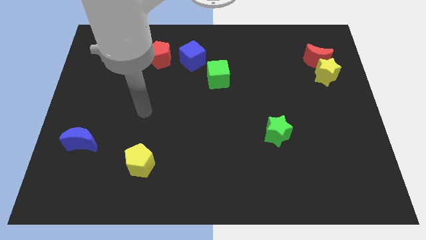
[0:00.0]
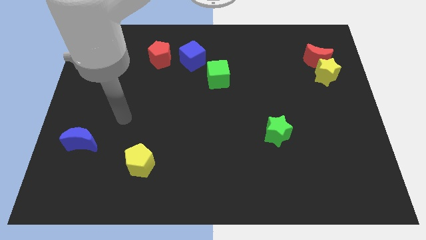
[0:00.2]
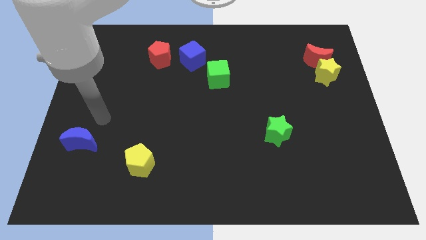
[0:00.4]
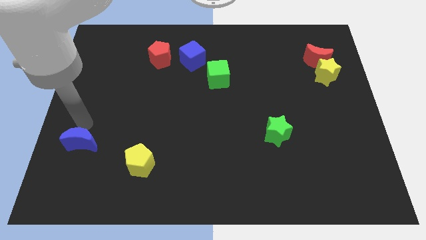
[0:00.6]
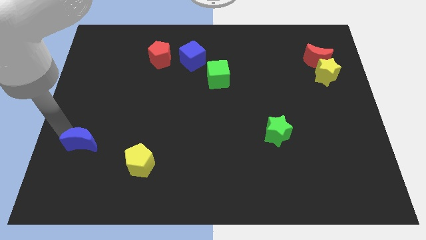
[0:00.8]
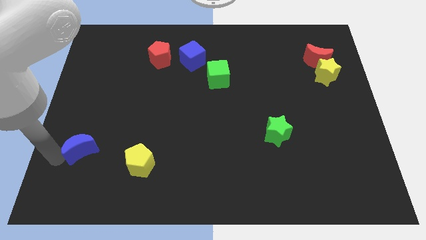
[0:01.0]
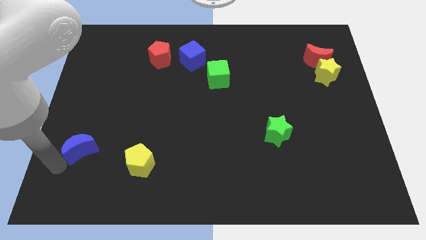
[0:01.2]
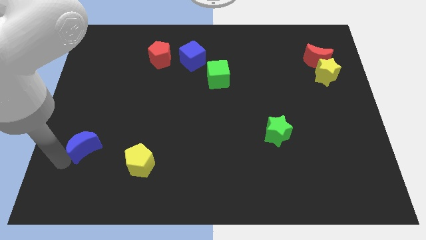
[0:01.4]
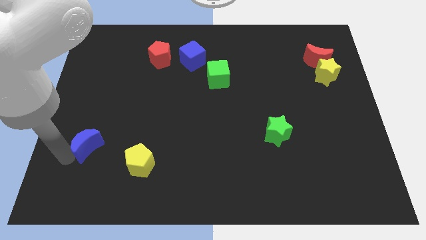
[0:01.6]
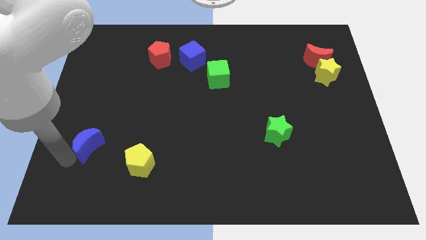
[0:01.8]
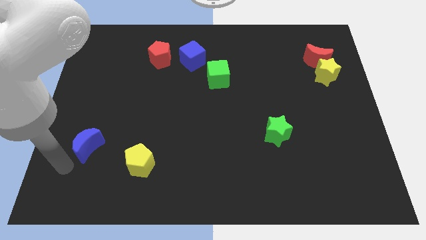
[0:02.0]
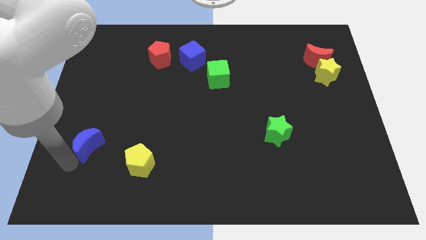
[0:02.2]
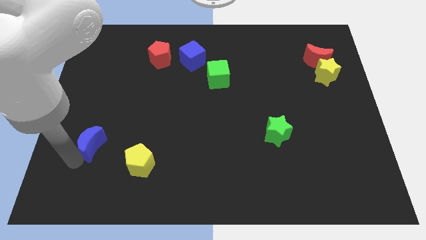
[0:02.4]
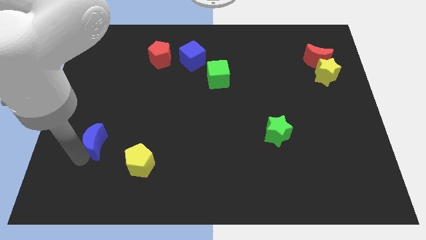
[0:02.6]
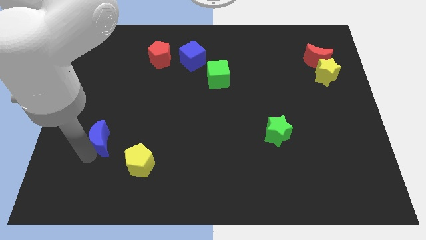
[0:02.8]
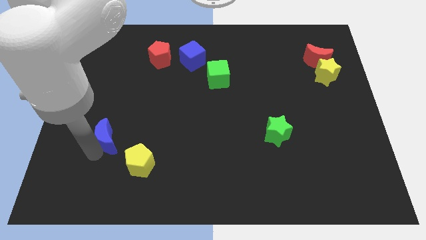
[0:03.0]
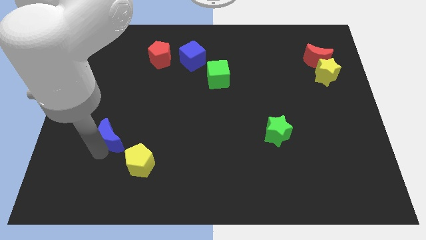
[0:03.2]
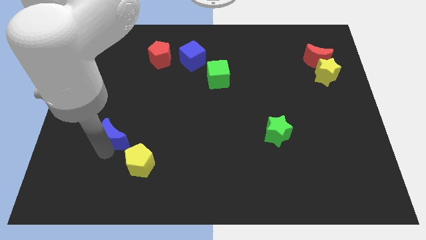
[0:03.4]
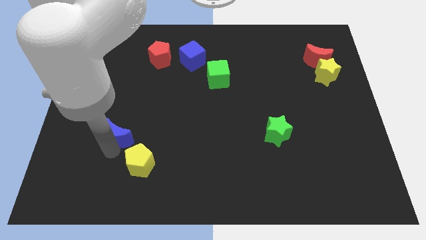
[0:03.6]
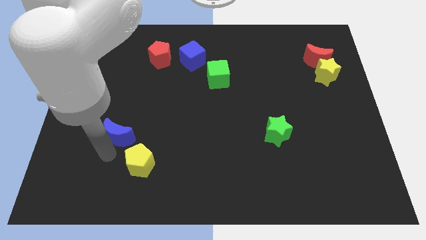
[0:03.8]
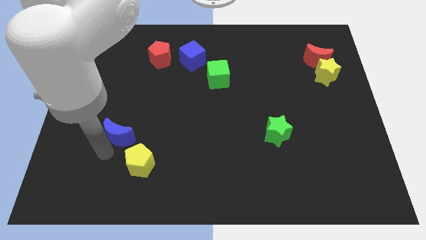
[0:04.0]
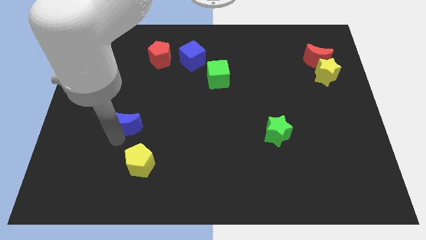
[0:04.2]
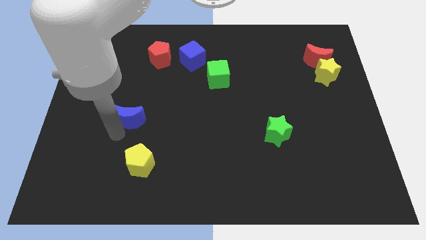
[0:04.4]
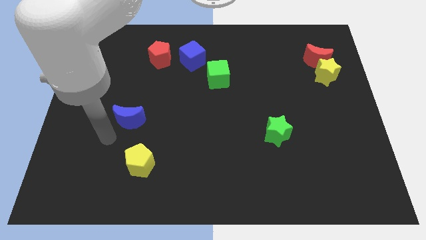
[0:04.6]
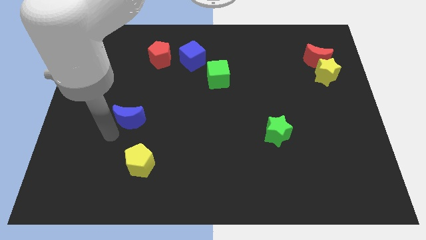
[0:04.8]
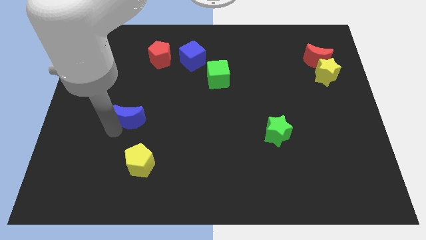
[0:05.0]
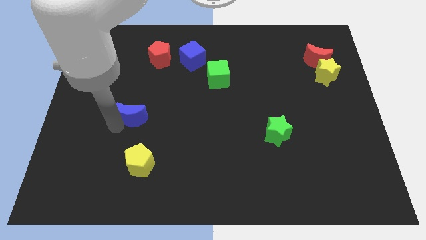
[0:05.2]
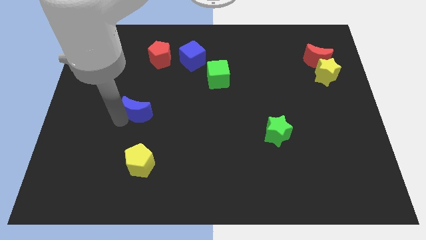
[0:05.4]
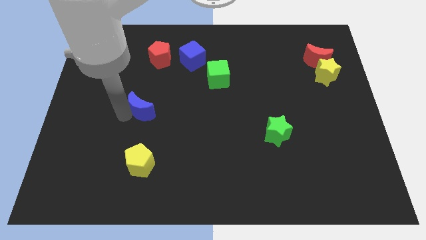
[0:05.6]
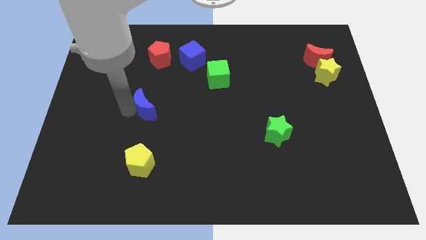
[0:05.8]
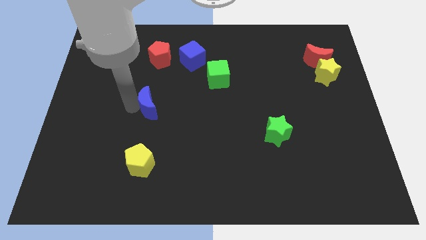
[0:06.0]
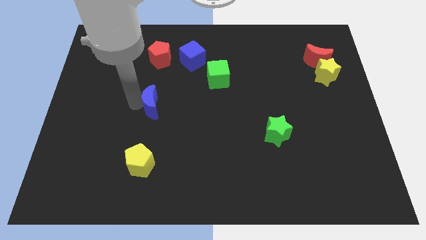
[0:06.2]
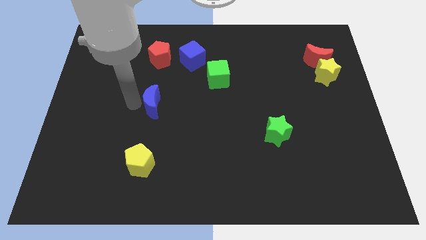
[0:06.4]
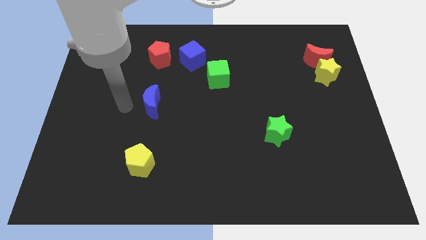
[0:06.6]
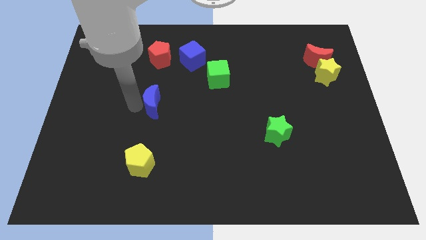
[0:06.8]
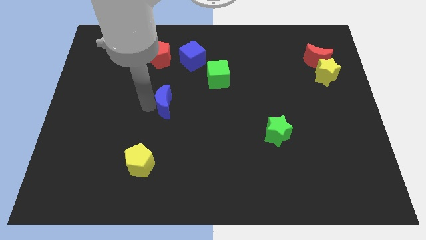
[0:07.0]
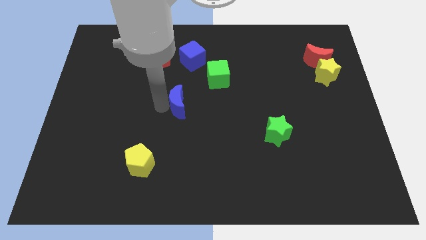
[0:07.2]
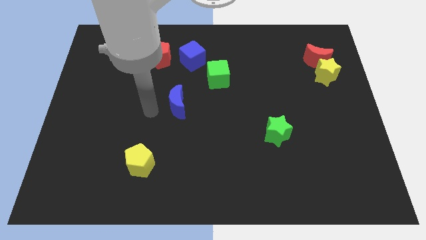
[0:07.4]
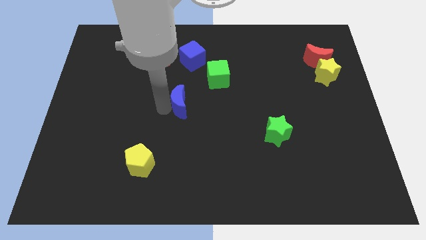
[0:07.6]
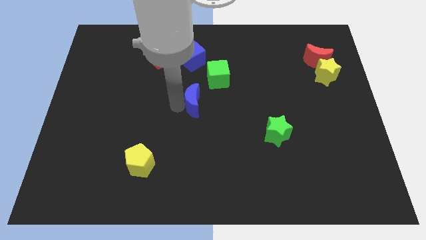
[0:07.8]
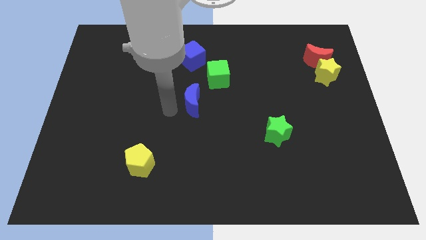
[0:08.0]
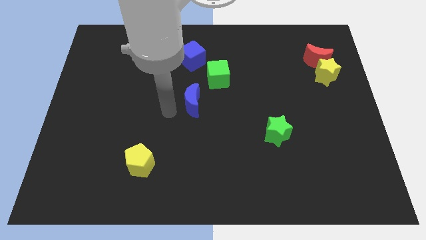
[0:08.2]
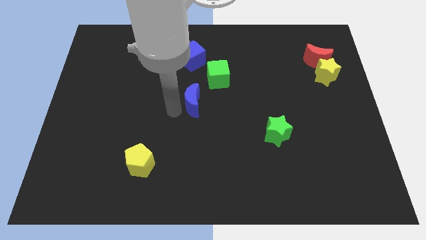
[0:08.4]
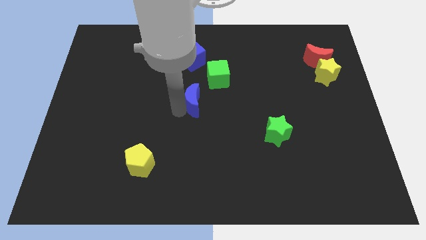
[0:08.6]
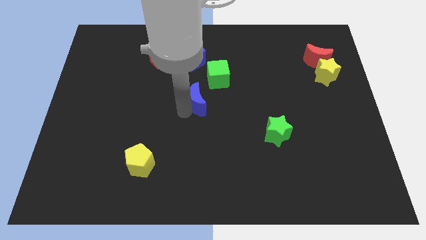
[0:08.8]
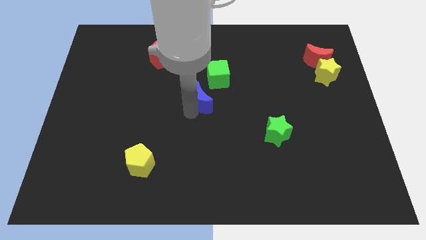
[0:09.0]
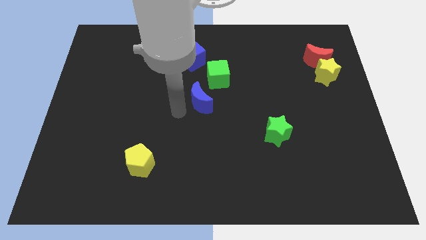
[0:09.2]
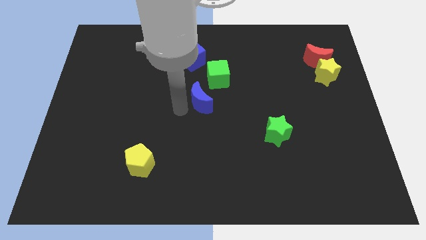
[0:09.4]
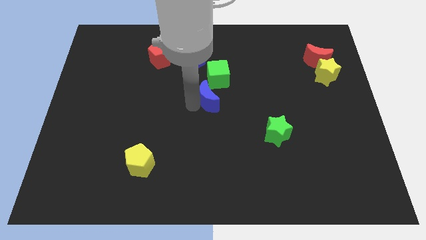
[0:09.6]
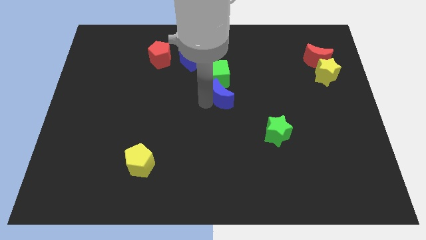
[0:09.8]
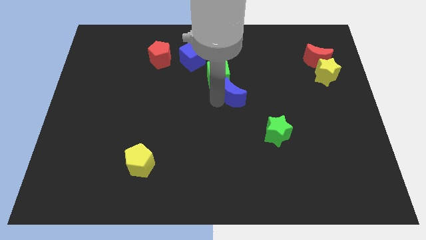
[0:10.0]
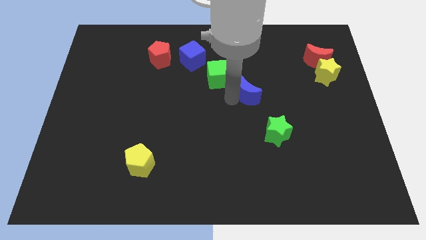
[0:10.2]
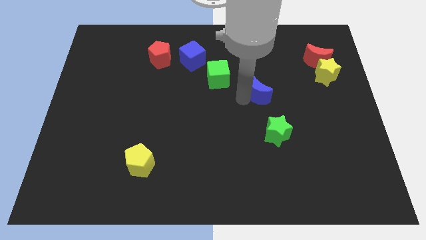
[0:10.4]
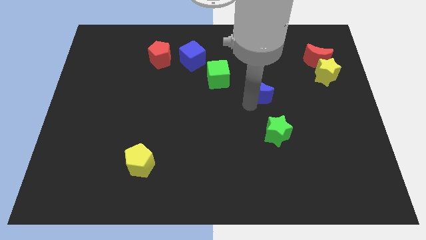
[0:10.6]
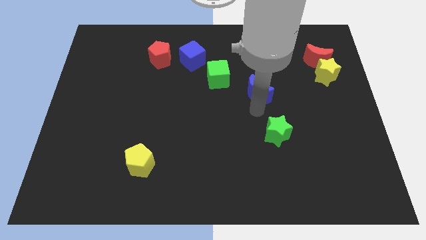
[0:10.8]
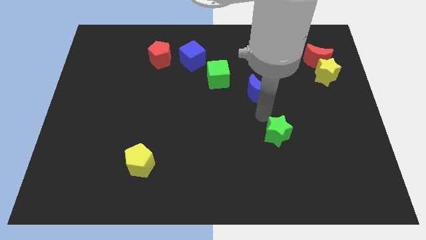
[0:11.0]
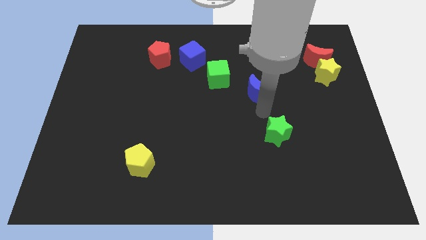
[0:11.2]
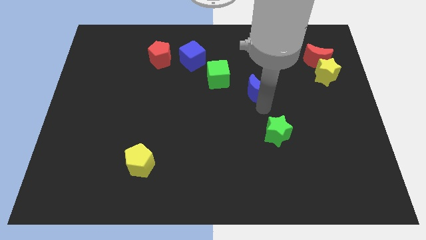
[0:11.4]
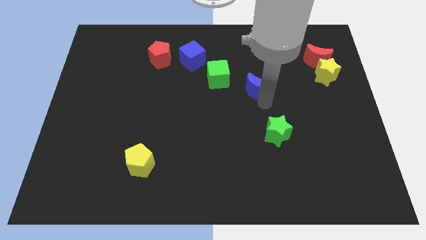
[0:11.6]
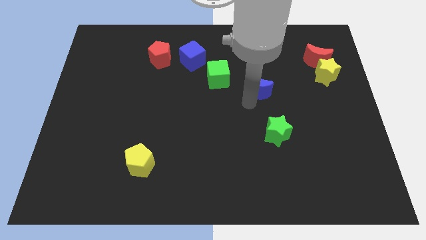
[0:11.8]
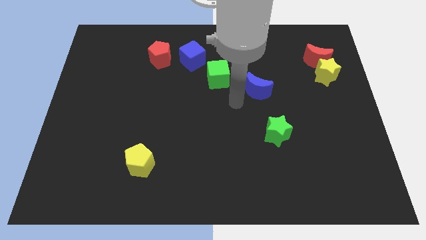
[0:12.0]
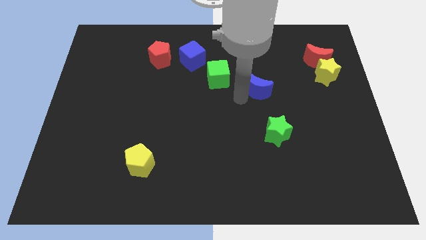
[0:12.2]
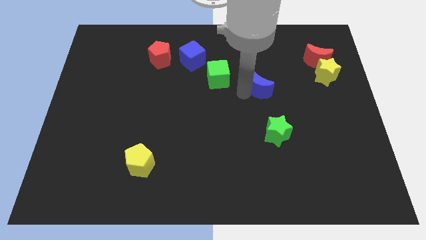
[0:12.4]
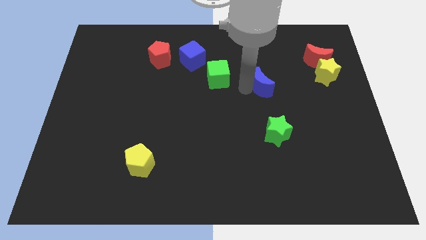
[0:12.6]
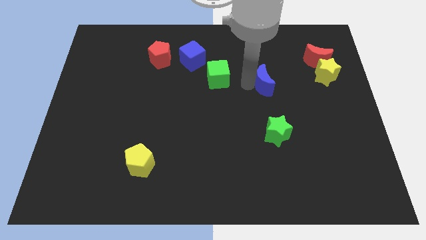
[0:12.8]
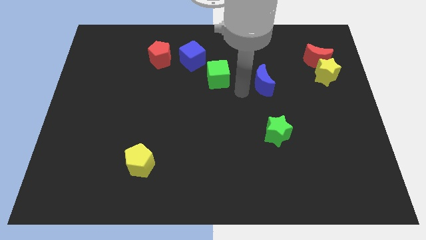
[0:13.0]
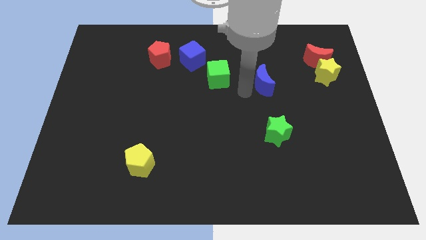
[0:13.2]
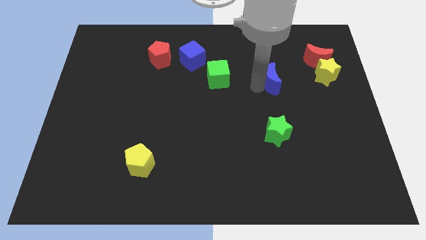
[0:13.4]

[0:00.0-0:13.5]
slide the blue moon left of the yellow star

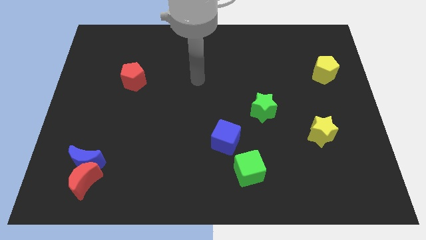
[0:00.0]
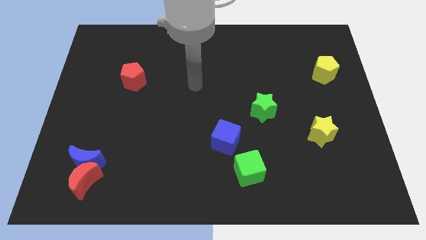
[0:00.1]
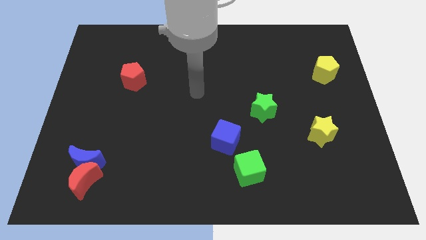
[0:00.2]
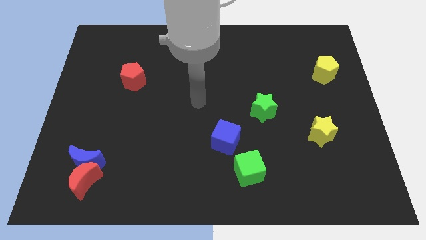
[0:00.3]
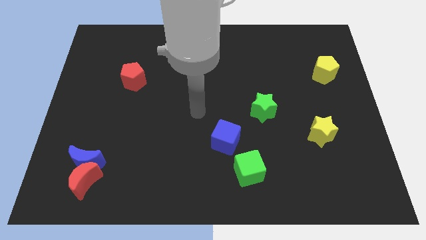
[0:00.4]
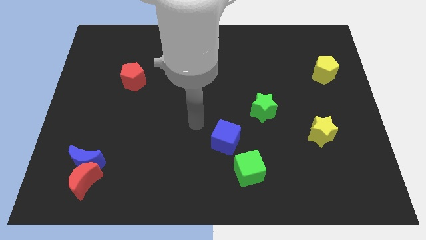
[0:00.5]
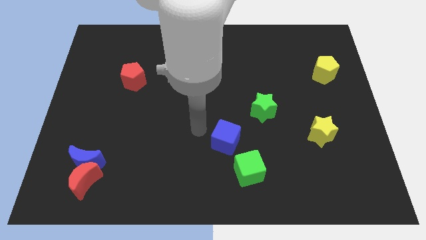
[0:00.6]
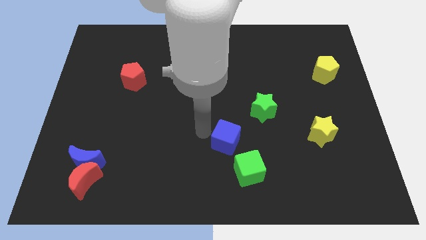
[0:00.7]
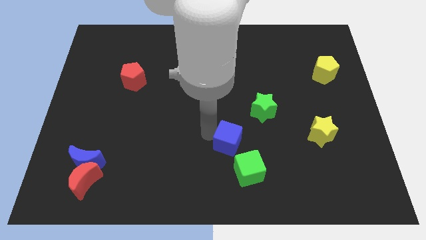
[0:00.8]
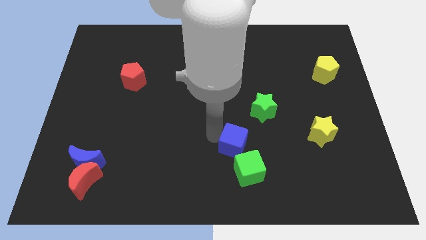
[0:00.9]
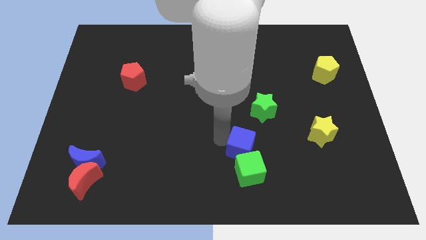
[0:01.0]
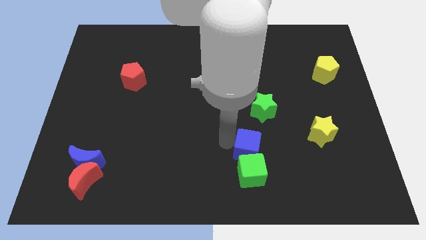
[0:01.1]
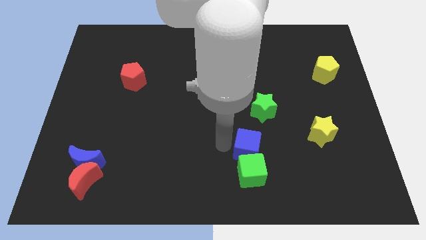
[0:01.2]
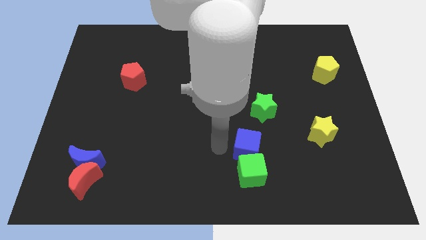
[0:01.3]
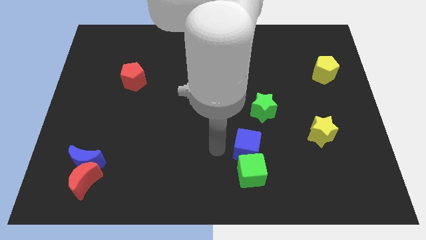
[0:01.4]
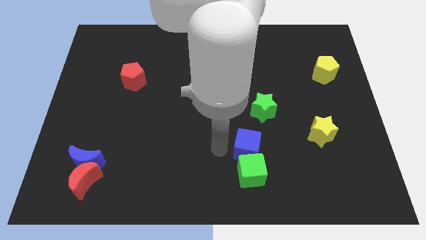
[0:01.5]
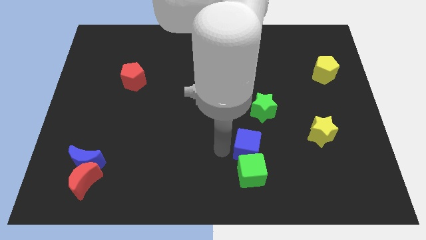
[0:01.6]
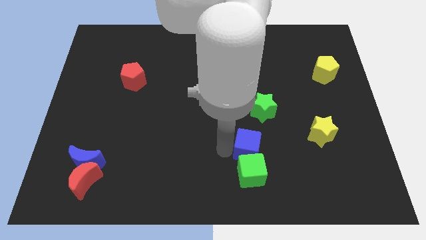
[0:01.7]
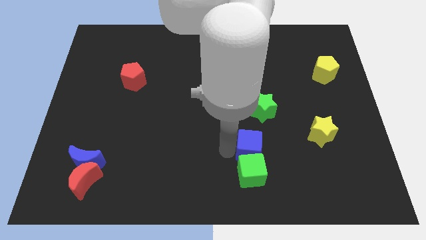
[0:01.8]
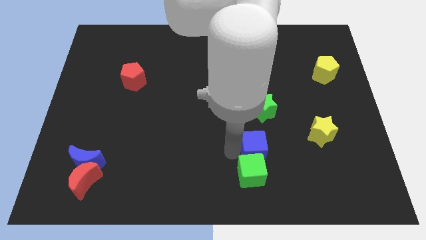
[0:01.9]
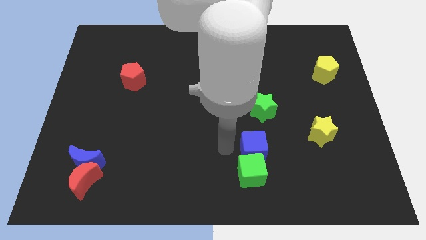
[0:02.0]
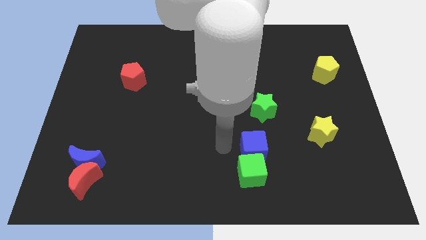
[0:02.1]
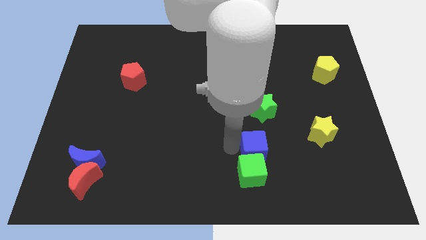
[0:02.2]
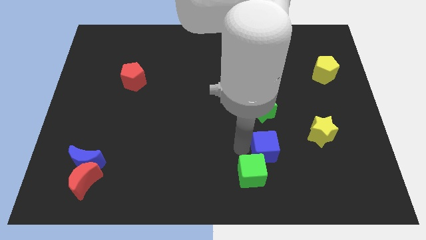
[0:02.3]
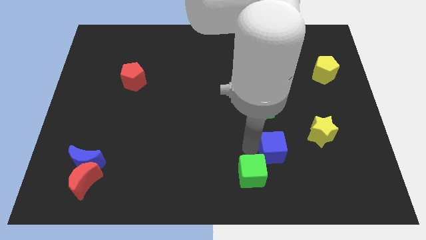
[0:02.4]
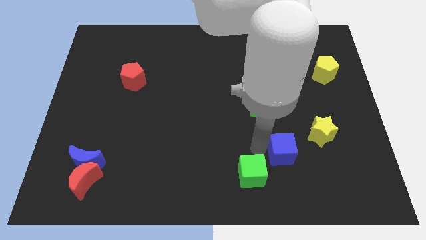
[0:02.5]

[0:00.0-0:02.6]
put the blue cube diagonally down and to the left of the yellow star
